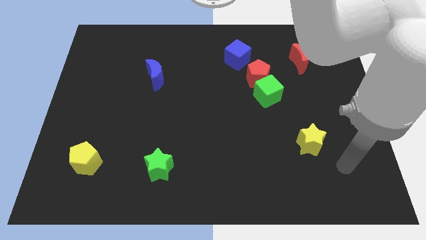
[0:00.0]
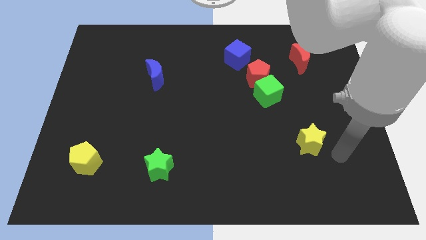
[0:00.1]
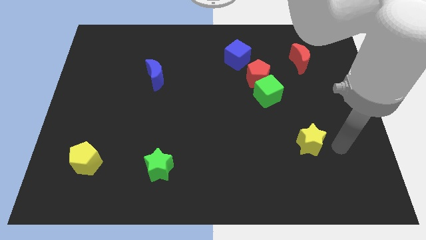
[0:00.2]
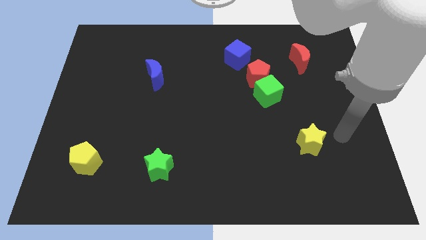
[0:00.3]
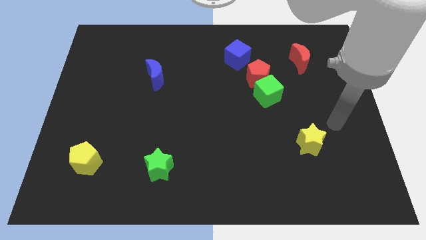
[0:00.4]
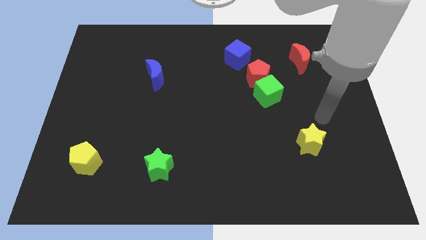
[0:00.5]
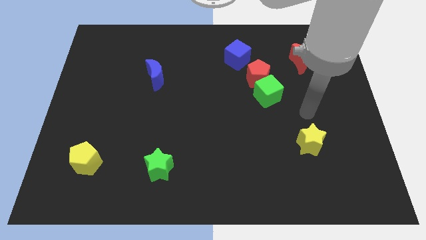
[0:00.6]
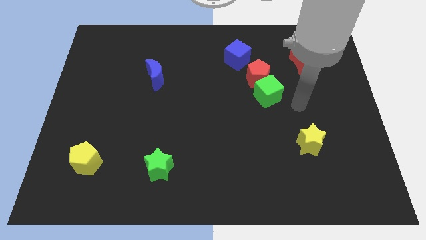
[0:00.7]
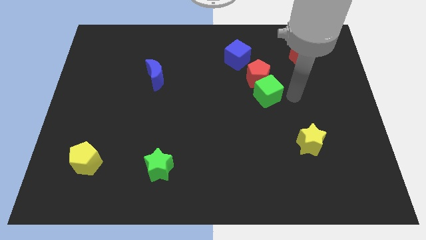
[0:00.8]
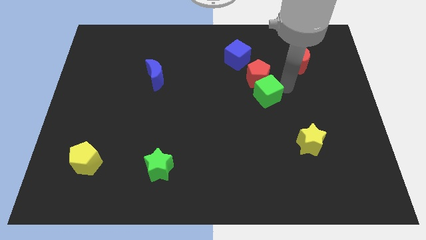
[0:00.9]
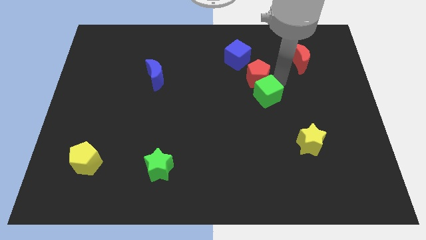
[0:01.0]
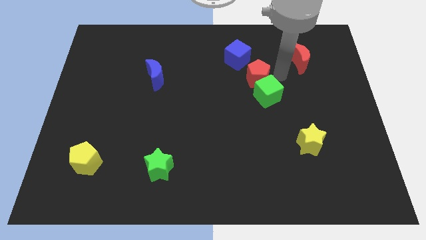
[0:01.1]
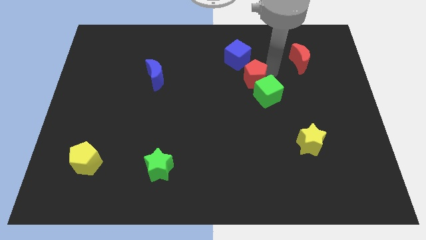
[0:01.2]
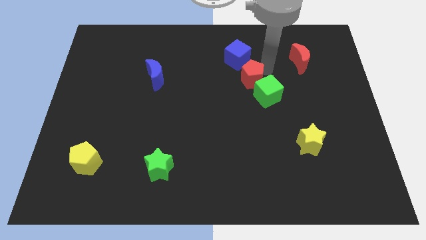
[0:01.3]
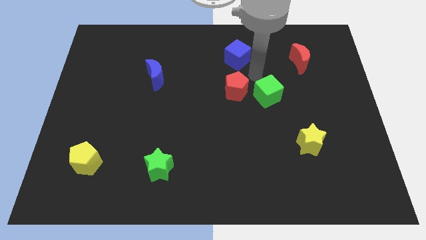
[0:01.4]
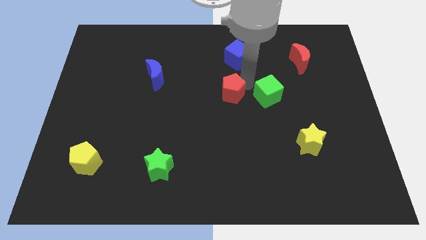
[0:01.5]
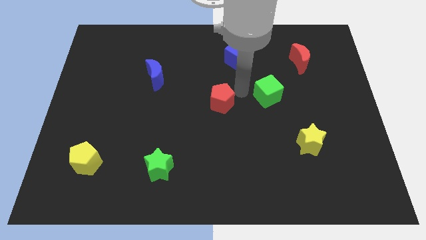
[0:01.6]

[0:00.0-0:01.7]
pull the green cube apart from the red pentagon

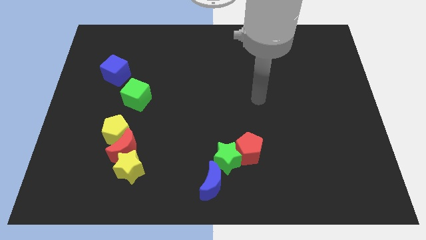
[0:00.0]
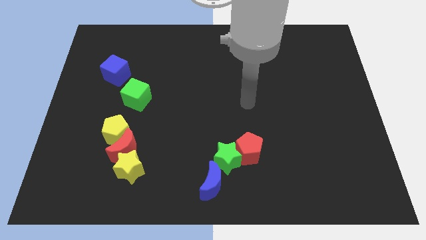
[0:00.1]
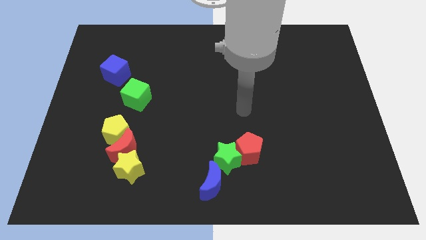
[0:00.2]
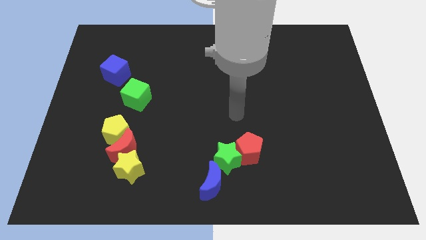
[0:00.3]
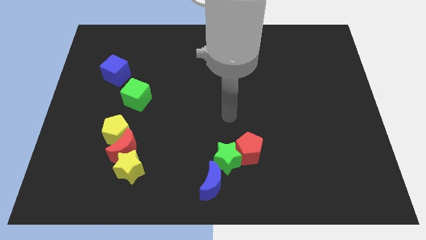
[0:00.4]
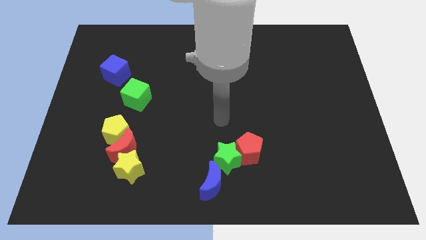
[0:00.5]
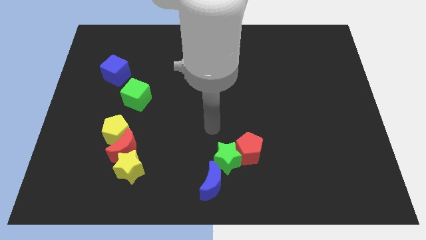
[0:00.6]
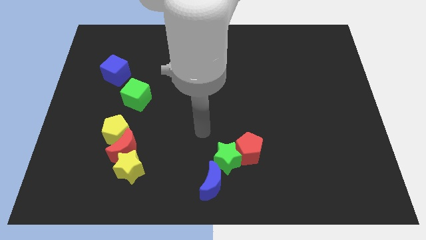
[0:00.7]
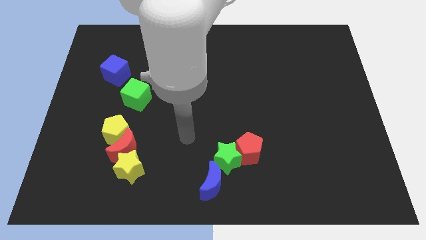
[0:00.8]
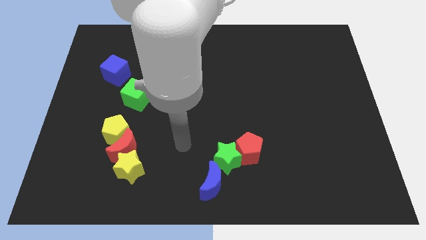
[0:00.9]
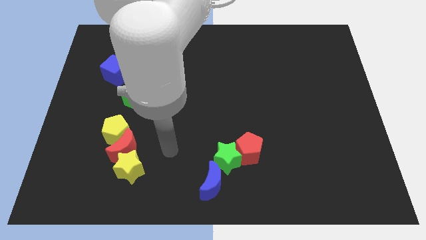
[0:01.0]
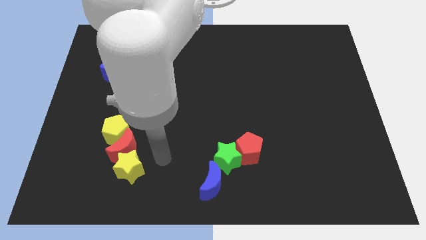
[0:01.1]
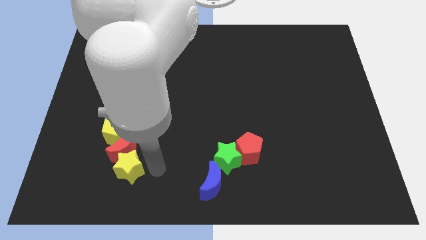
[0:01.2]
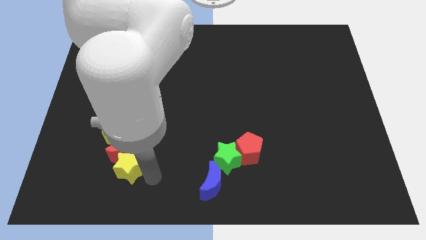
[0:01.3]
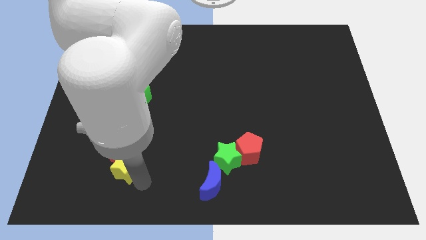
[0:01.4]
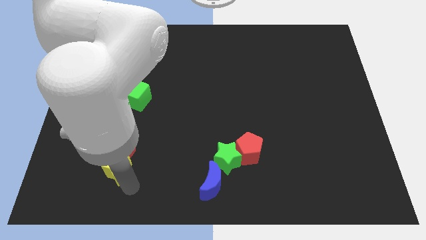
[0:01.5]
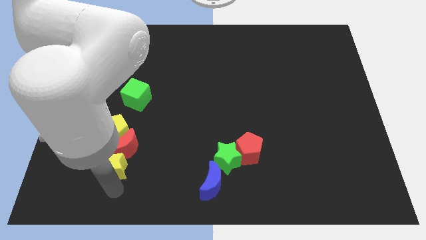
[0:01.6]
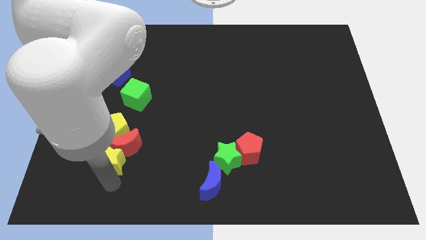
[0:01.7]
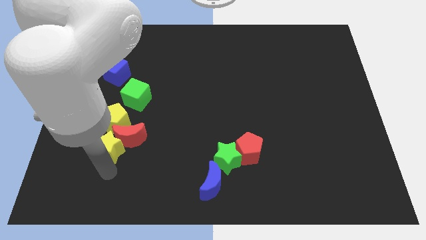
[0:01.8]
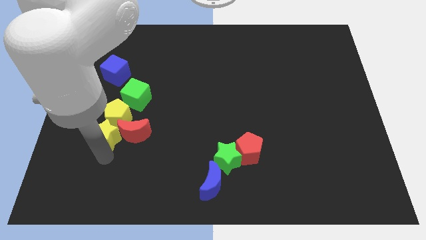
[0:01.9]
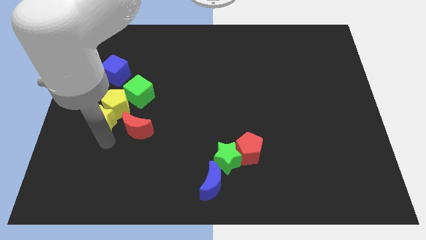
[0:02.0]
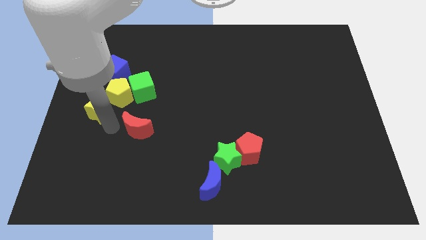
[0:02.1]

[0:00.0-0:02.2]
pull the red moon apart from the yellow star and yellow pentagon

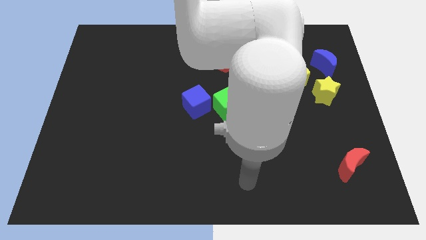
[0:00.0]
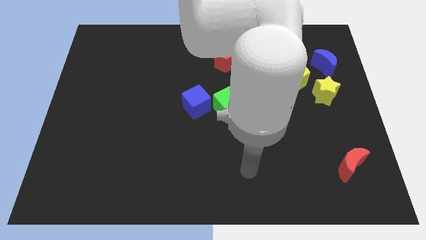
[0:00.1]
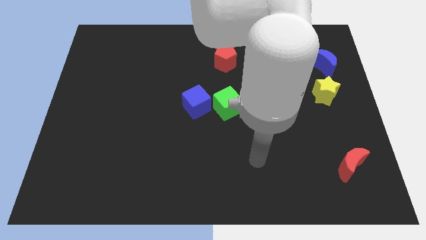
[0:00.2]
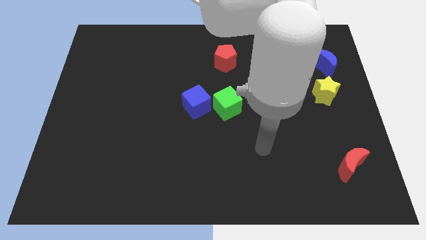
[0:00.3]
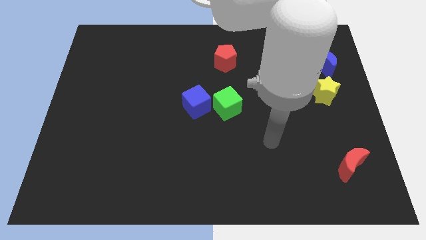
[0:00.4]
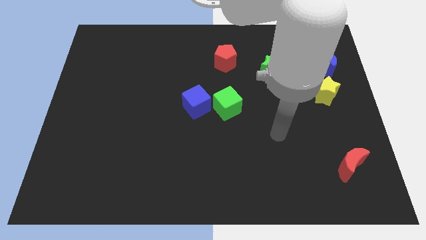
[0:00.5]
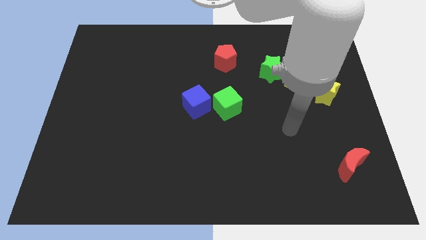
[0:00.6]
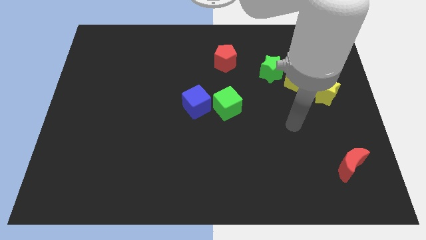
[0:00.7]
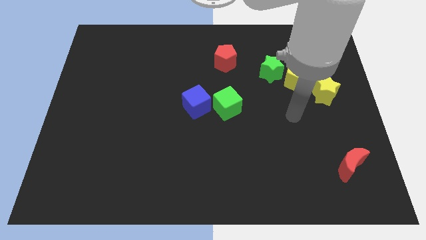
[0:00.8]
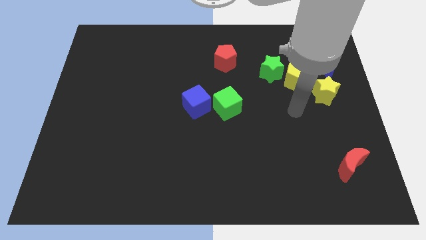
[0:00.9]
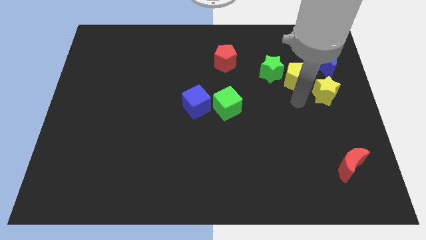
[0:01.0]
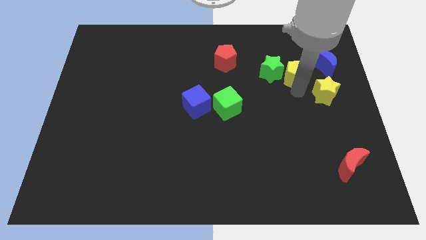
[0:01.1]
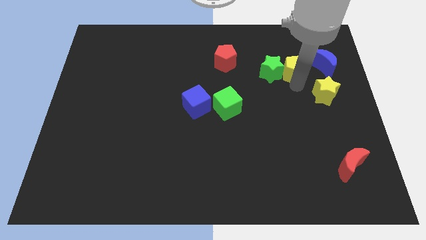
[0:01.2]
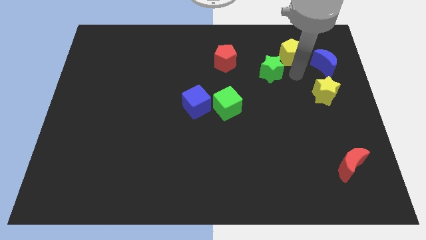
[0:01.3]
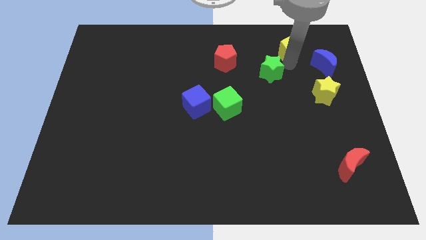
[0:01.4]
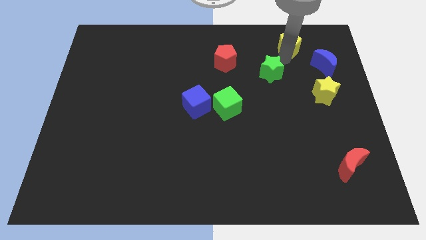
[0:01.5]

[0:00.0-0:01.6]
separate the green star from the yellow pentagon

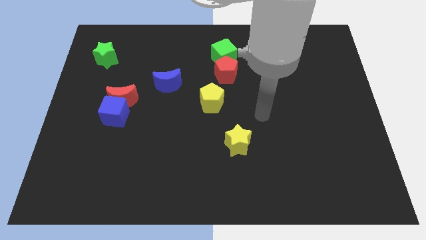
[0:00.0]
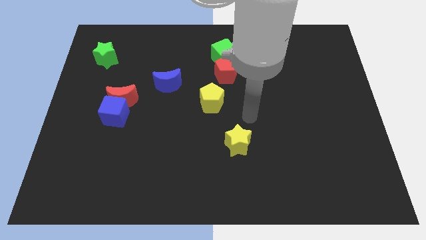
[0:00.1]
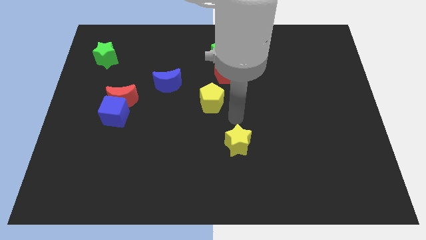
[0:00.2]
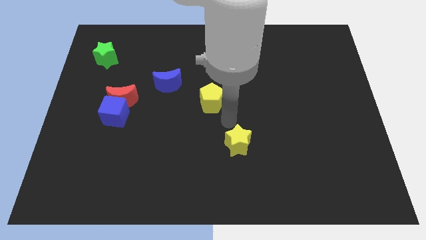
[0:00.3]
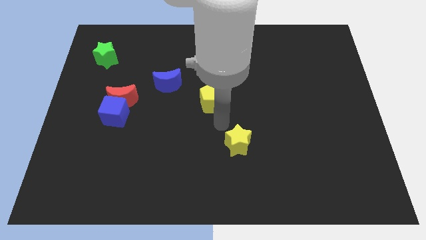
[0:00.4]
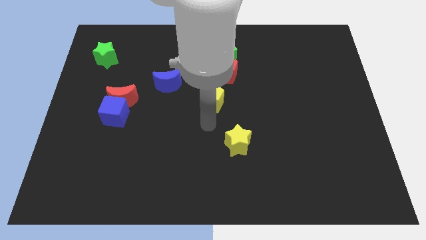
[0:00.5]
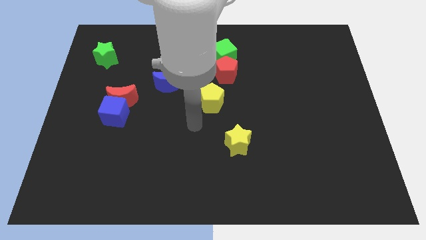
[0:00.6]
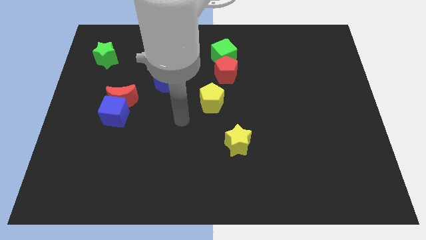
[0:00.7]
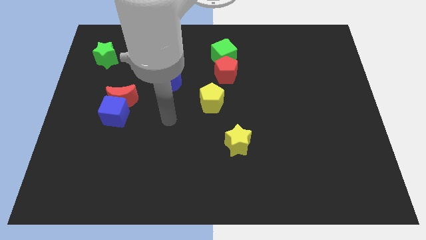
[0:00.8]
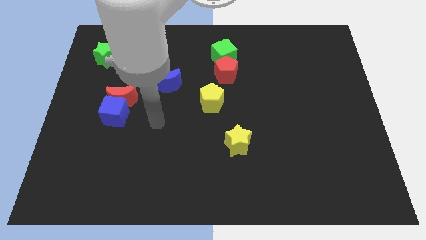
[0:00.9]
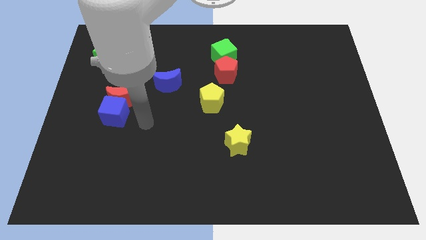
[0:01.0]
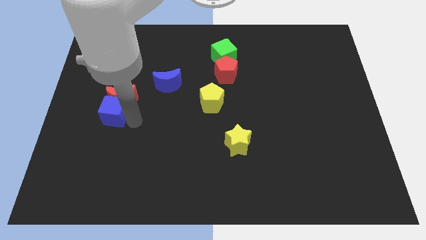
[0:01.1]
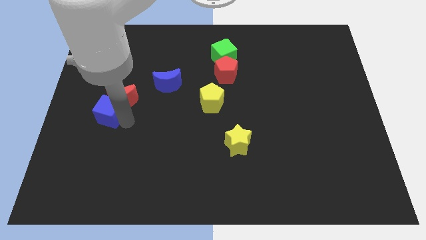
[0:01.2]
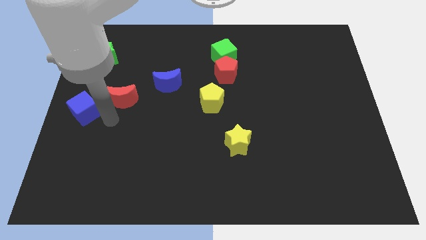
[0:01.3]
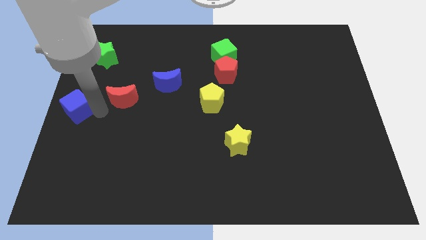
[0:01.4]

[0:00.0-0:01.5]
move the red moon away from the blue cube

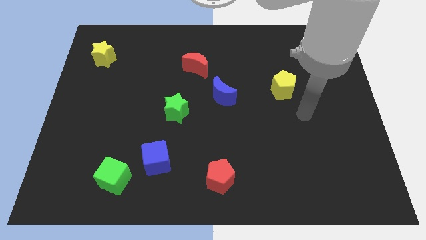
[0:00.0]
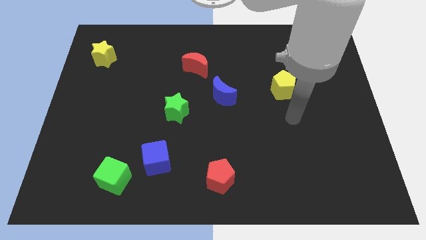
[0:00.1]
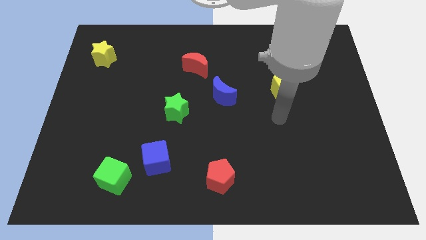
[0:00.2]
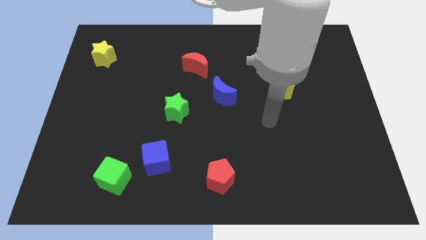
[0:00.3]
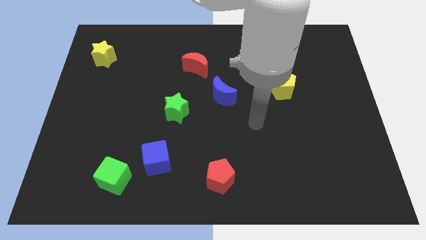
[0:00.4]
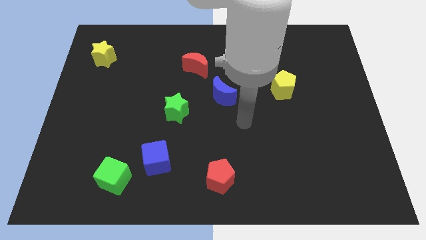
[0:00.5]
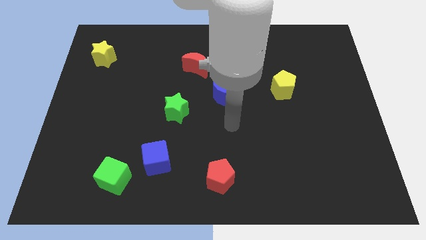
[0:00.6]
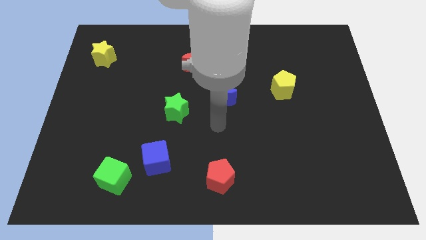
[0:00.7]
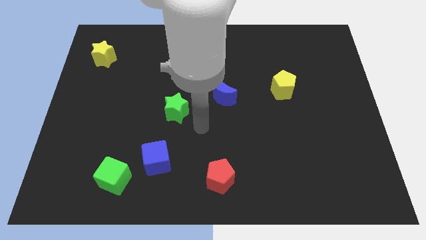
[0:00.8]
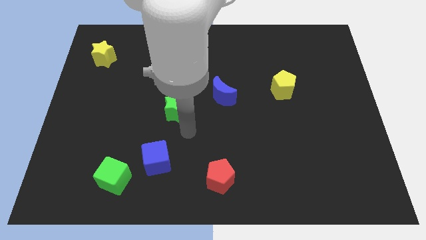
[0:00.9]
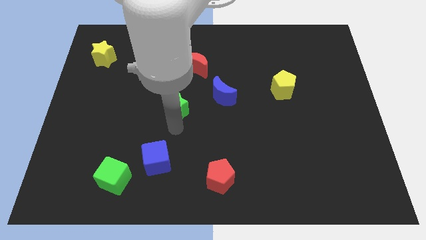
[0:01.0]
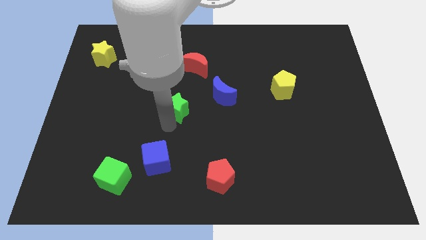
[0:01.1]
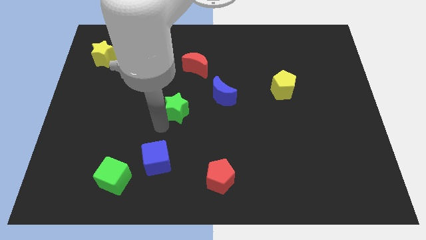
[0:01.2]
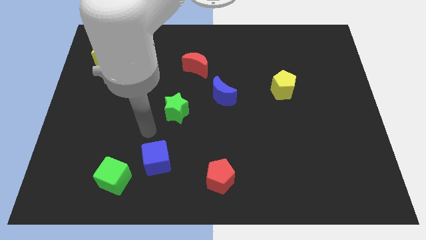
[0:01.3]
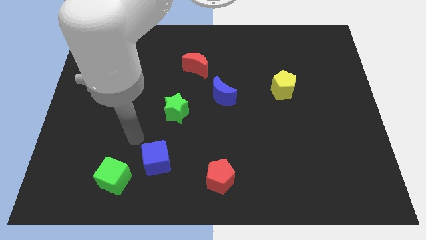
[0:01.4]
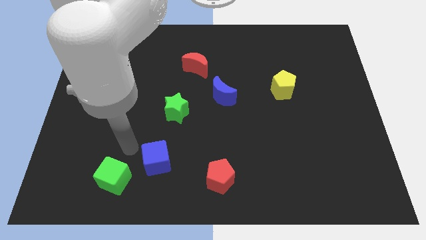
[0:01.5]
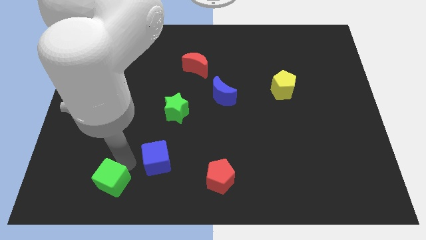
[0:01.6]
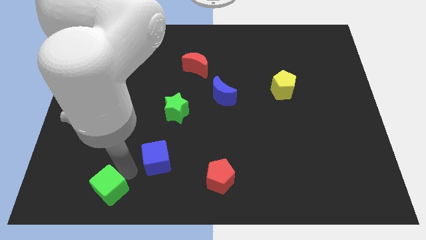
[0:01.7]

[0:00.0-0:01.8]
pull the blue cube apart from the green cube

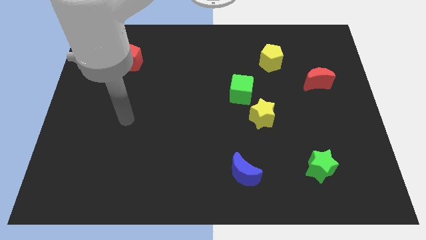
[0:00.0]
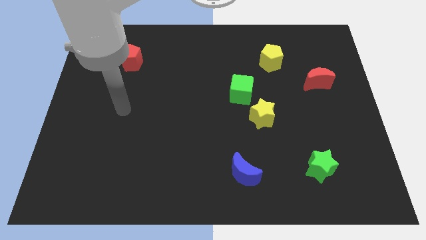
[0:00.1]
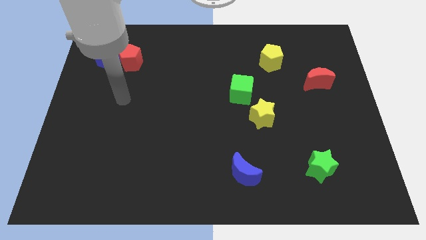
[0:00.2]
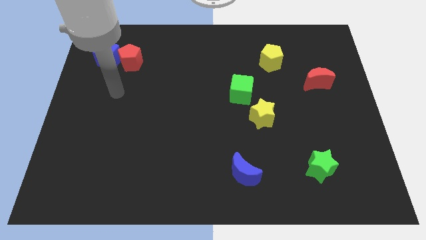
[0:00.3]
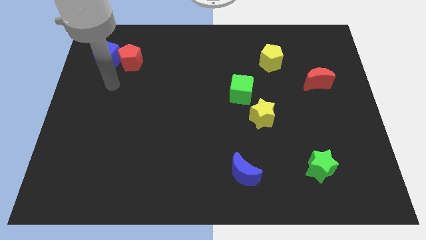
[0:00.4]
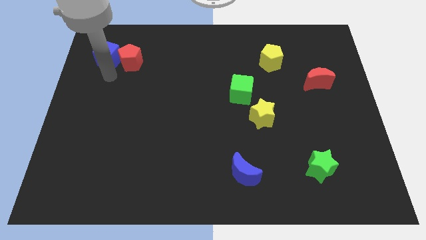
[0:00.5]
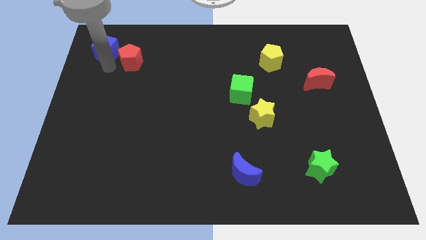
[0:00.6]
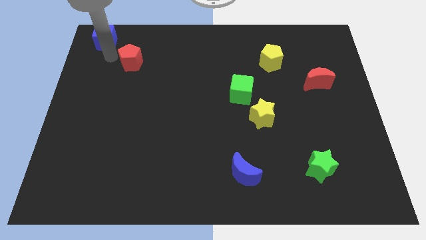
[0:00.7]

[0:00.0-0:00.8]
move the red pentagon away from the blue cube
